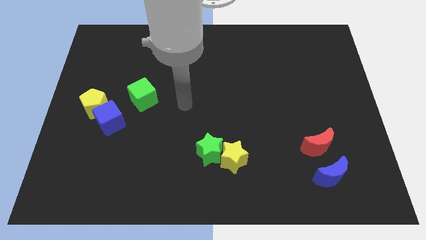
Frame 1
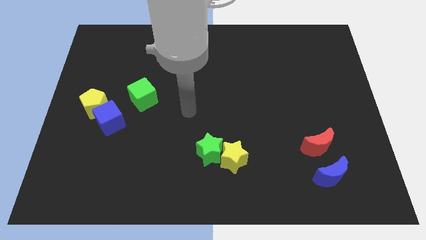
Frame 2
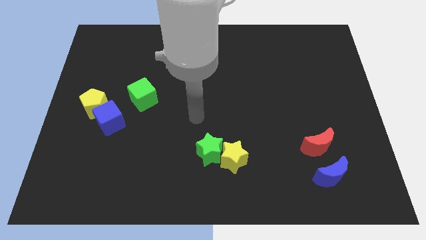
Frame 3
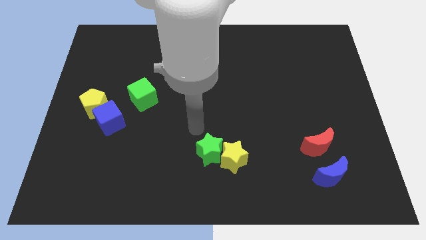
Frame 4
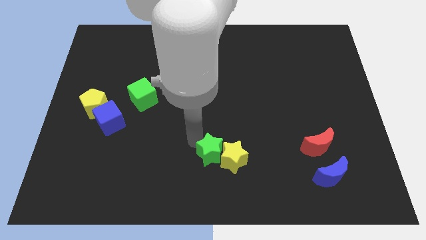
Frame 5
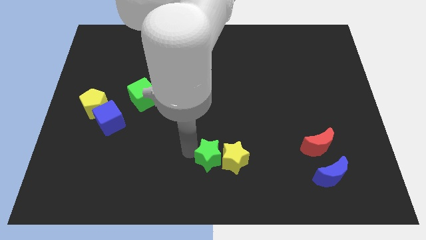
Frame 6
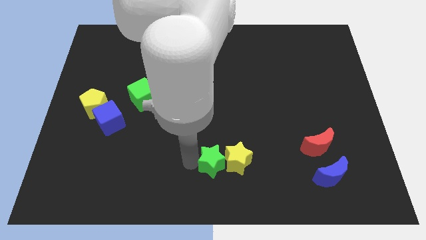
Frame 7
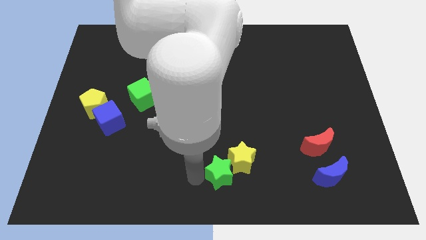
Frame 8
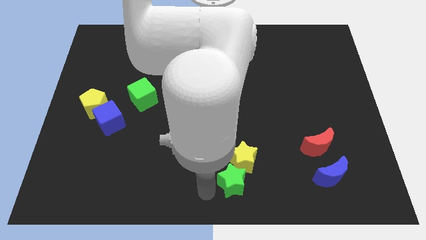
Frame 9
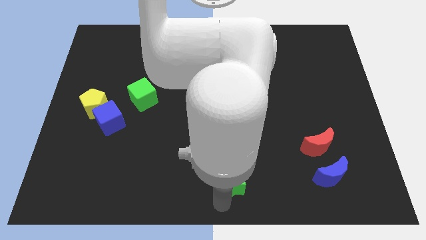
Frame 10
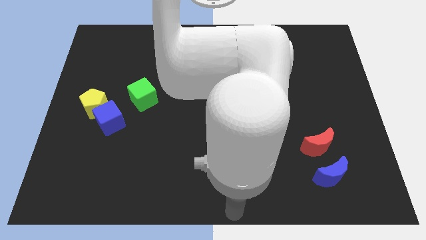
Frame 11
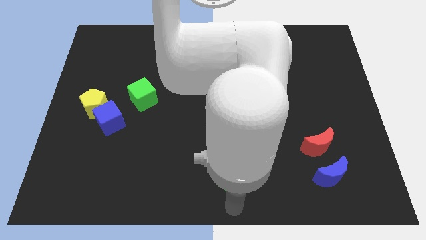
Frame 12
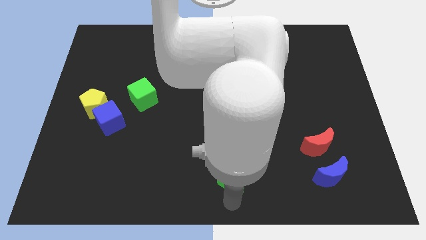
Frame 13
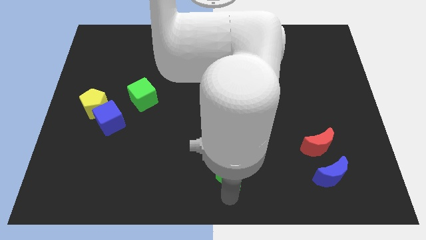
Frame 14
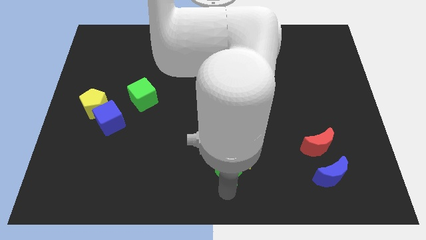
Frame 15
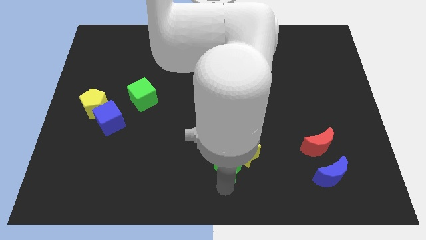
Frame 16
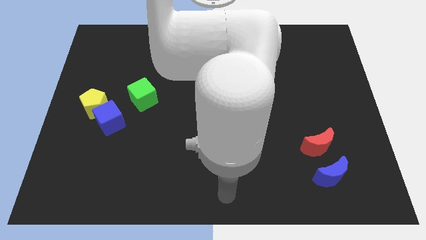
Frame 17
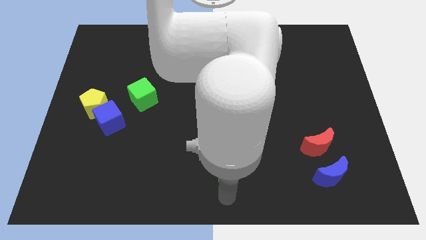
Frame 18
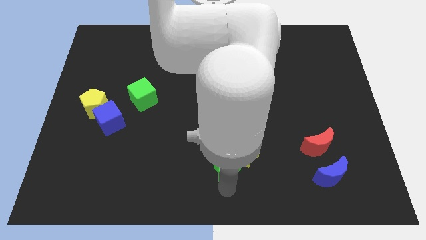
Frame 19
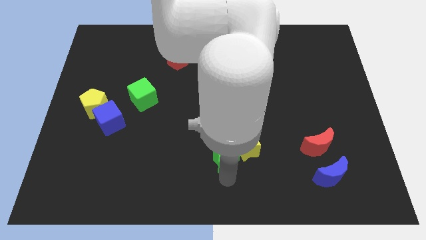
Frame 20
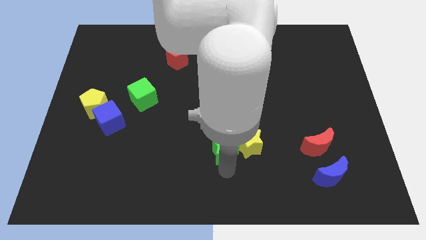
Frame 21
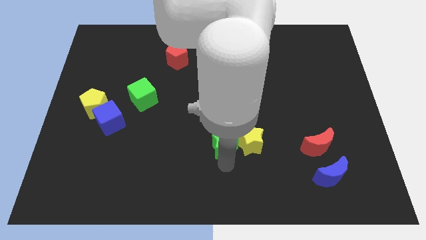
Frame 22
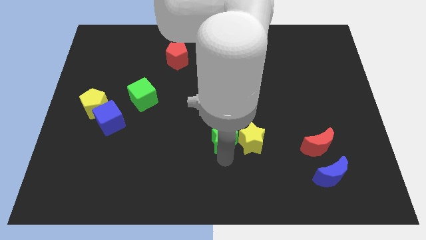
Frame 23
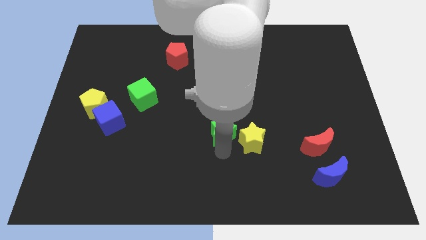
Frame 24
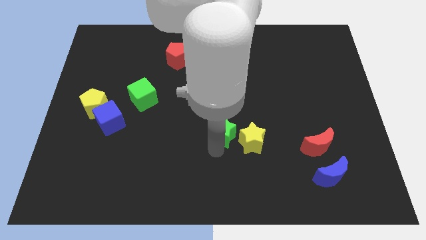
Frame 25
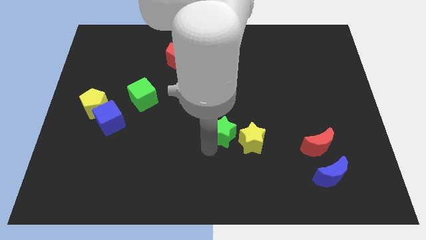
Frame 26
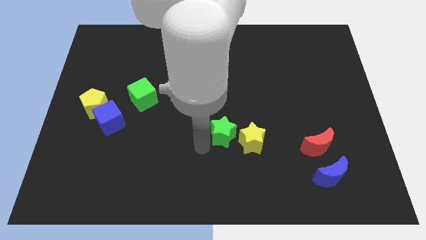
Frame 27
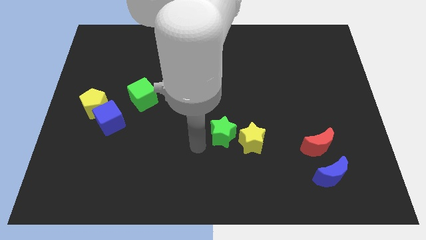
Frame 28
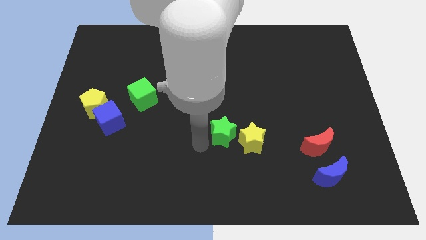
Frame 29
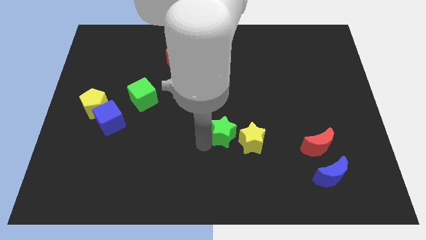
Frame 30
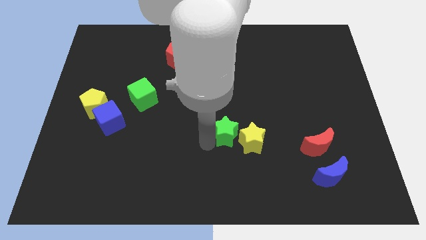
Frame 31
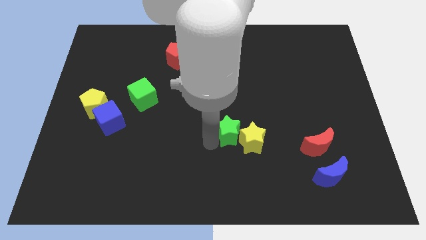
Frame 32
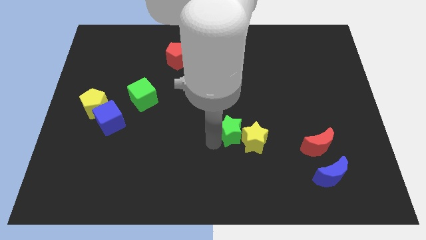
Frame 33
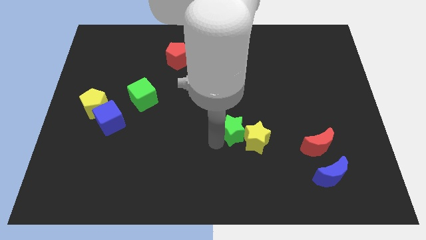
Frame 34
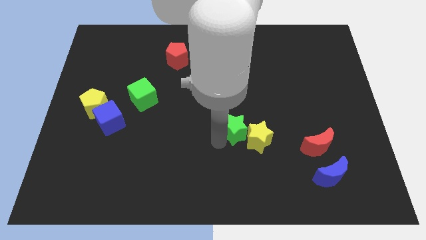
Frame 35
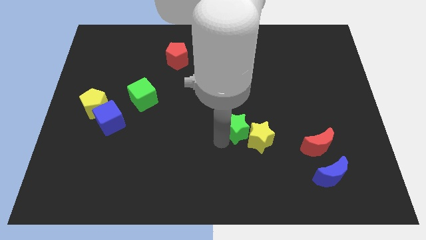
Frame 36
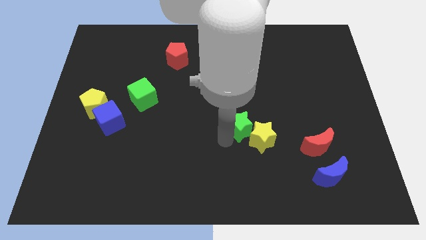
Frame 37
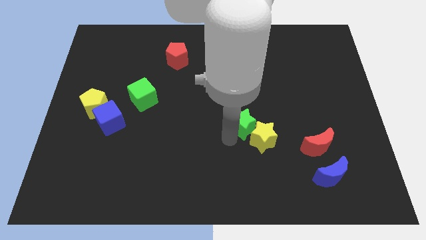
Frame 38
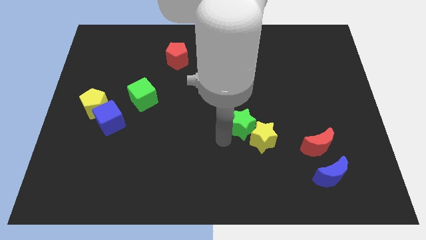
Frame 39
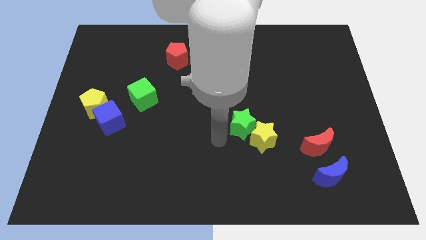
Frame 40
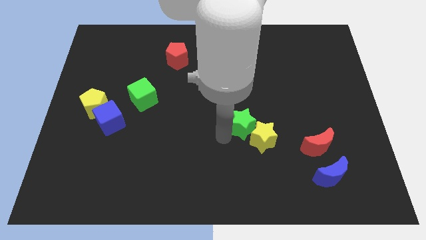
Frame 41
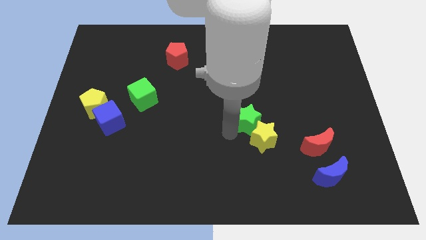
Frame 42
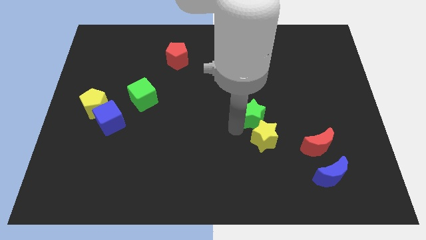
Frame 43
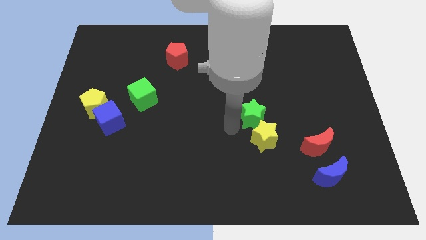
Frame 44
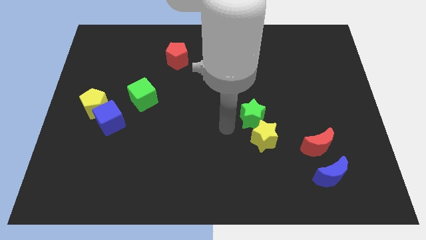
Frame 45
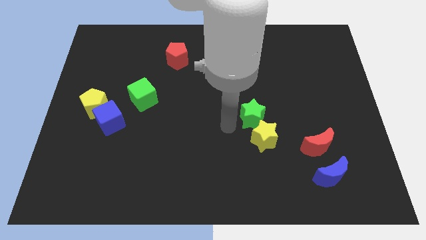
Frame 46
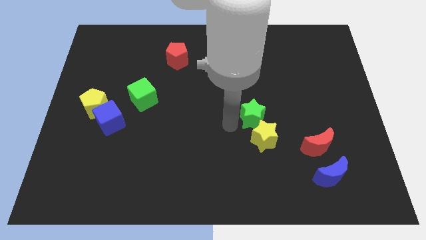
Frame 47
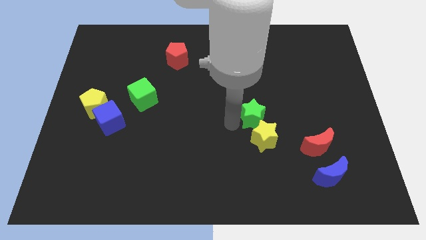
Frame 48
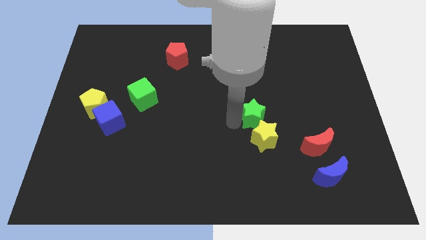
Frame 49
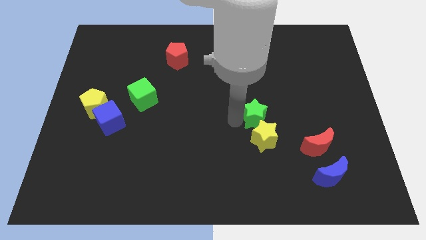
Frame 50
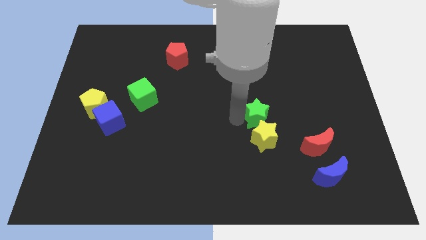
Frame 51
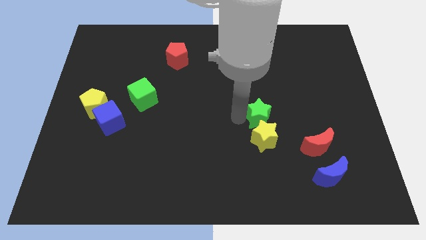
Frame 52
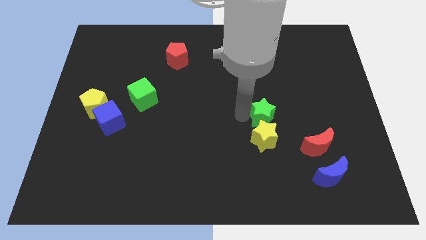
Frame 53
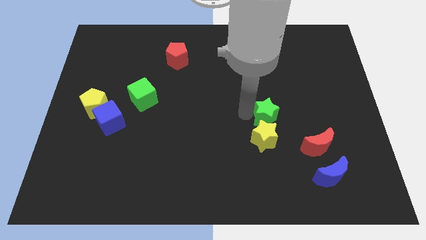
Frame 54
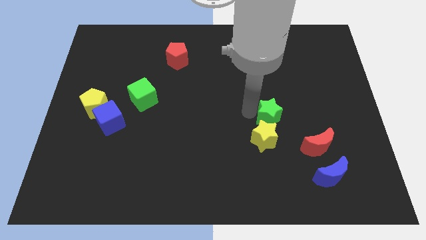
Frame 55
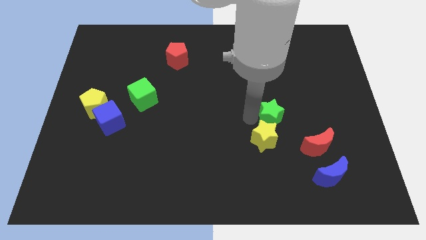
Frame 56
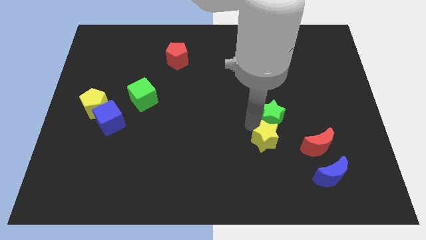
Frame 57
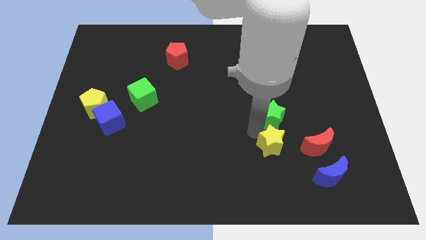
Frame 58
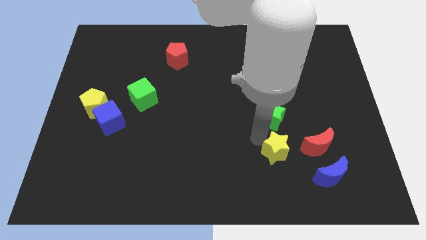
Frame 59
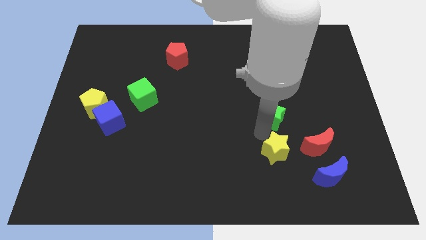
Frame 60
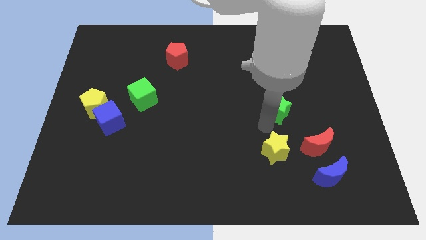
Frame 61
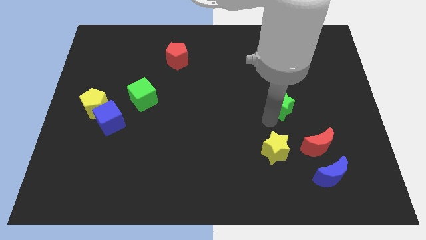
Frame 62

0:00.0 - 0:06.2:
slide the green star diagonally up and to the right

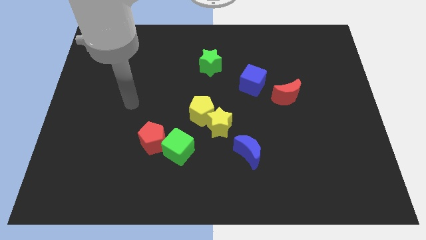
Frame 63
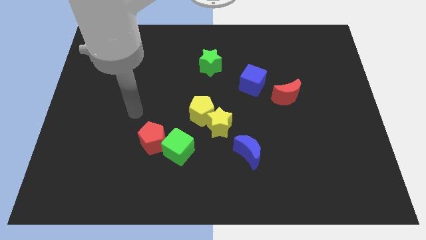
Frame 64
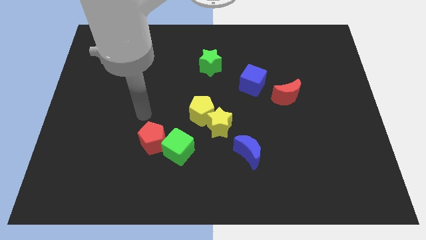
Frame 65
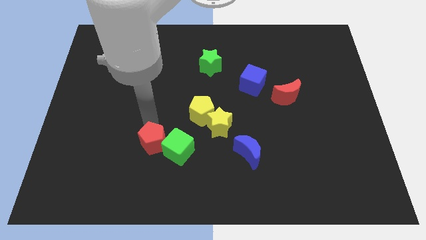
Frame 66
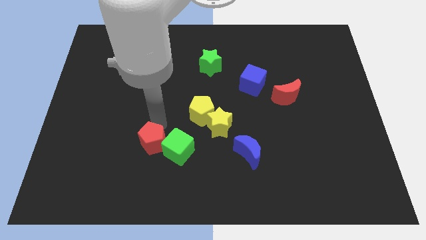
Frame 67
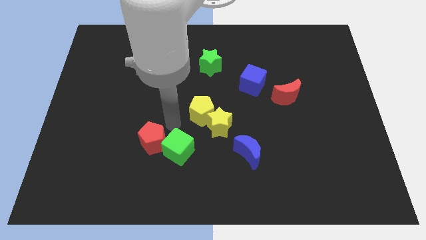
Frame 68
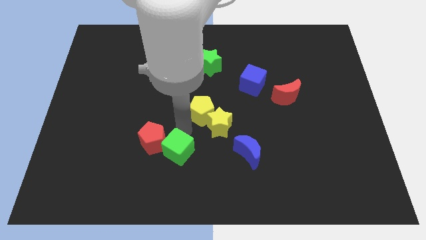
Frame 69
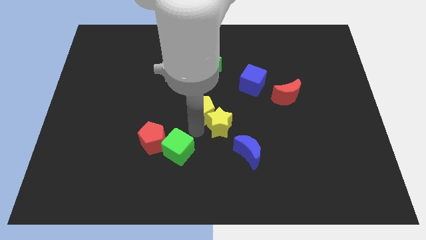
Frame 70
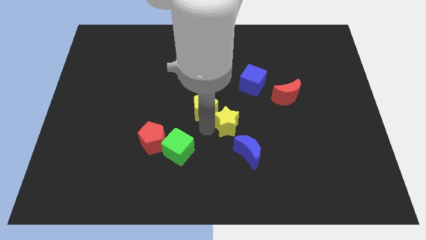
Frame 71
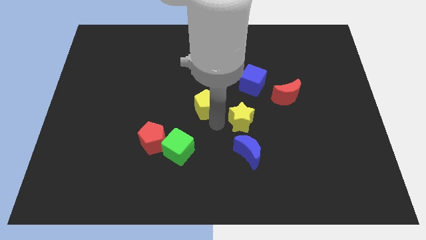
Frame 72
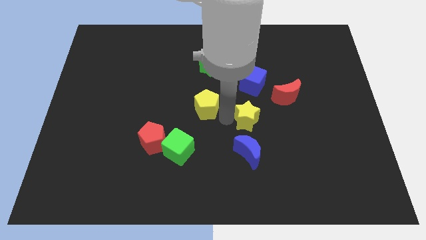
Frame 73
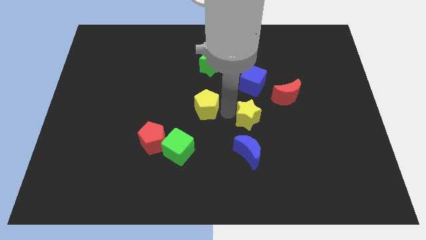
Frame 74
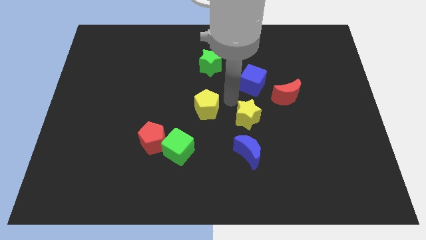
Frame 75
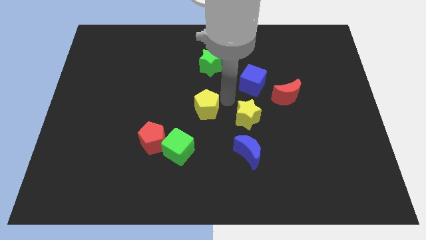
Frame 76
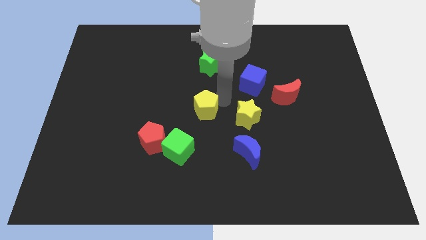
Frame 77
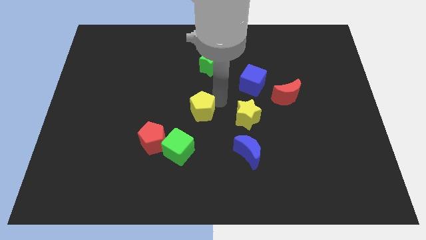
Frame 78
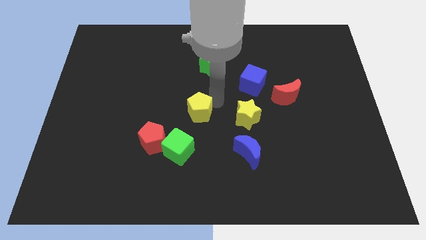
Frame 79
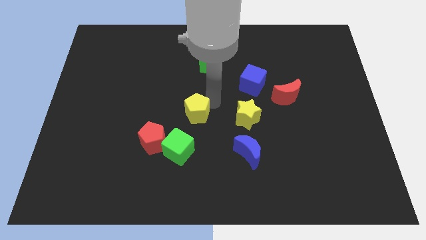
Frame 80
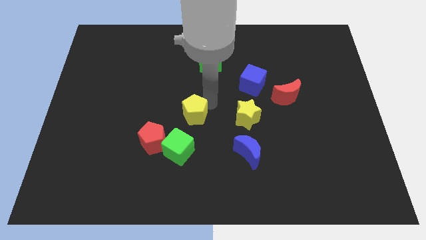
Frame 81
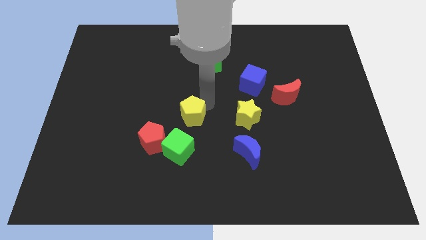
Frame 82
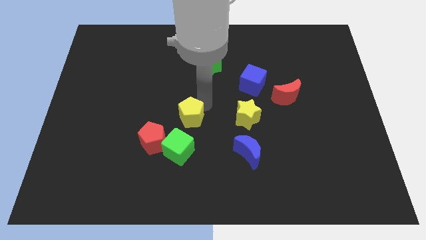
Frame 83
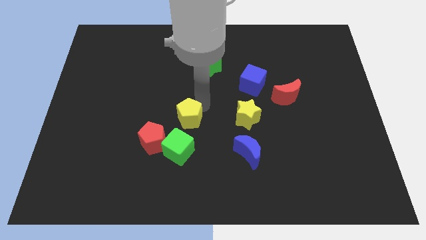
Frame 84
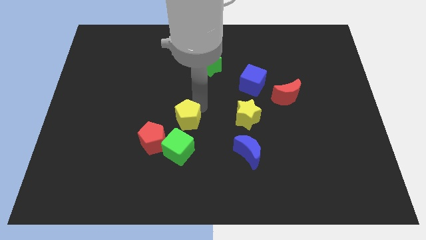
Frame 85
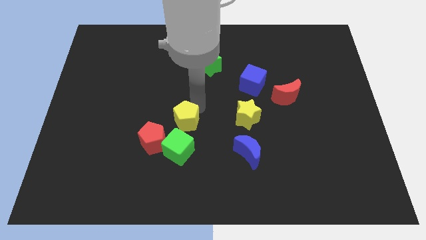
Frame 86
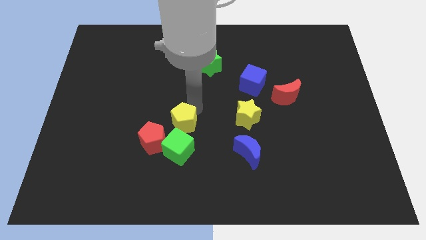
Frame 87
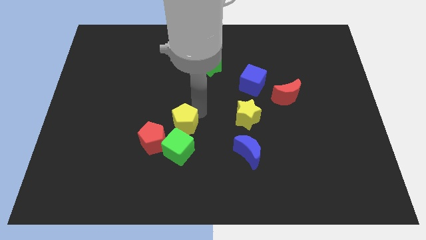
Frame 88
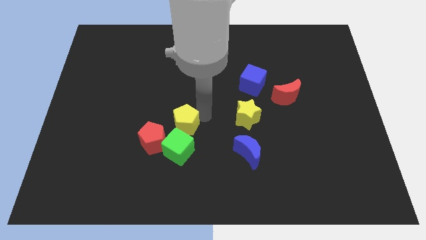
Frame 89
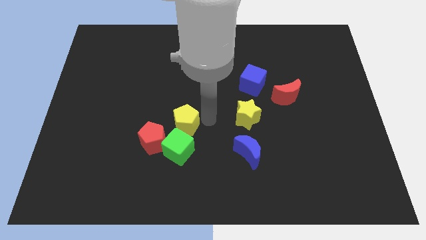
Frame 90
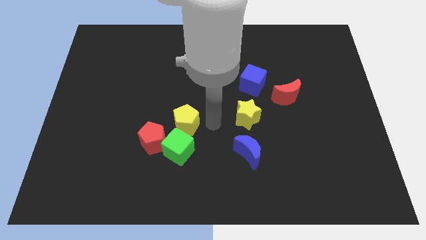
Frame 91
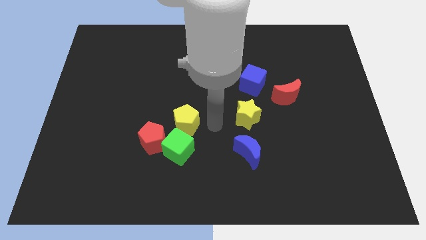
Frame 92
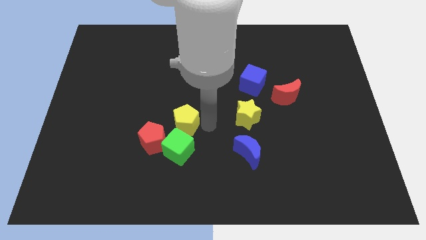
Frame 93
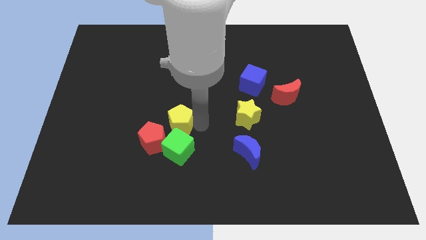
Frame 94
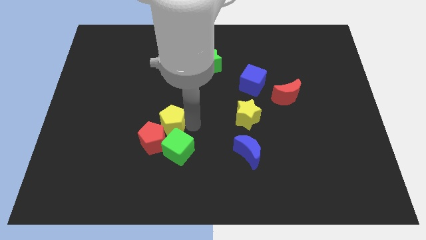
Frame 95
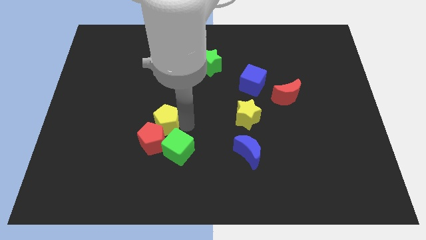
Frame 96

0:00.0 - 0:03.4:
slightly slide the yellow pentagon left
